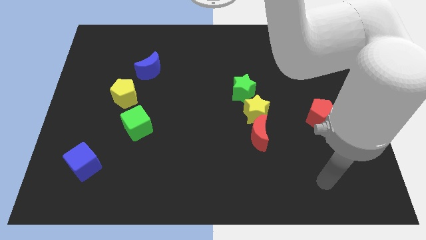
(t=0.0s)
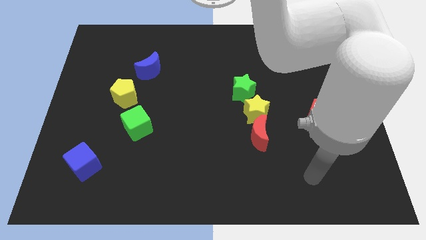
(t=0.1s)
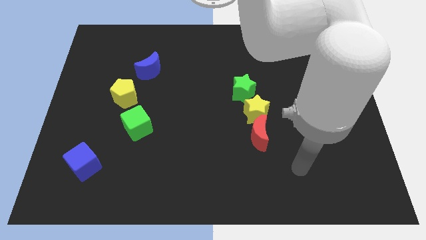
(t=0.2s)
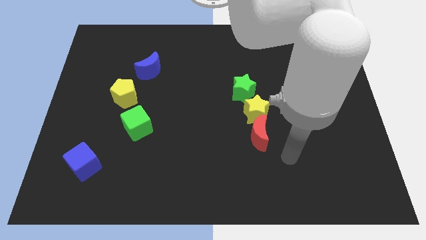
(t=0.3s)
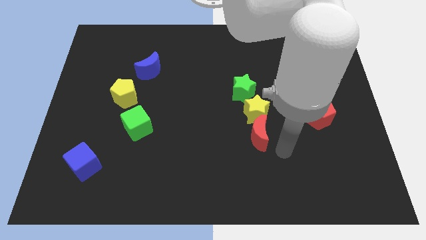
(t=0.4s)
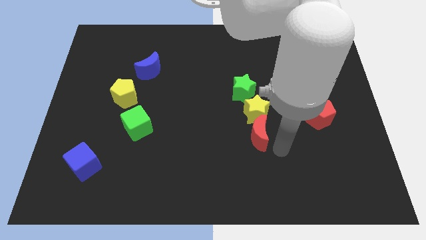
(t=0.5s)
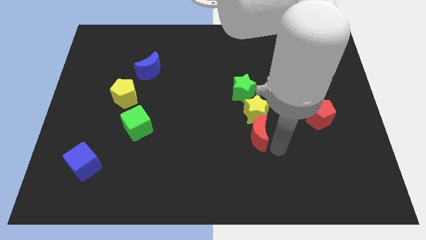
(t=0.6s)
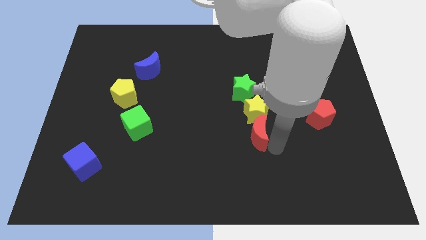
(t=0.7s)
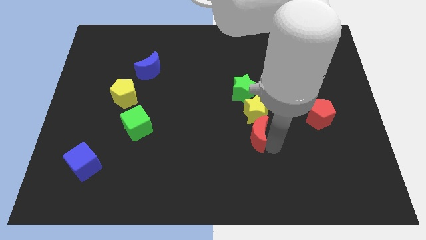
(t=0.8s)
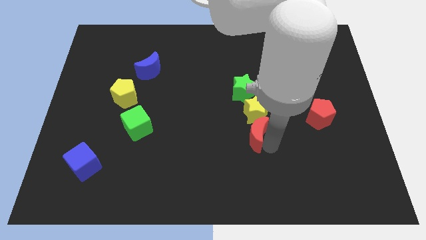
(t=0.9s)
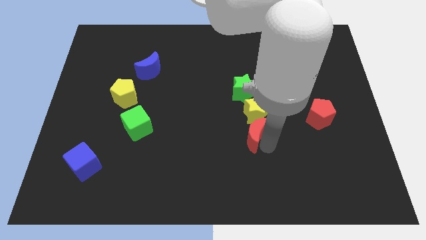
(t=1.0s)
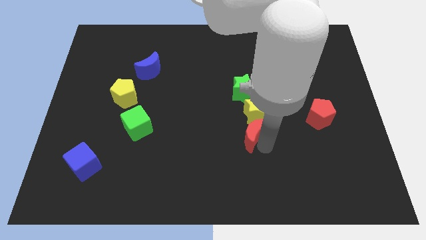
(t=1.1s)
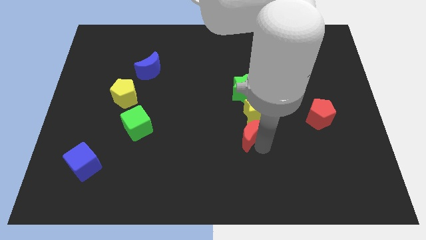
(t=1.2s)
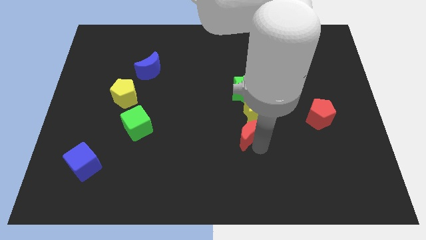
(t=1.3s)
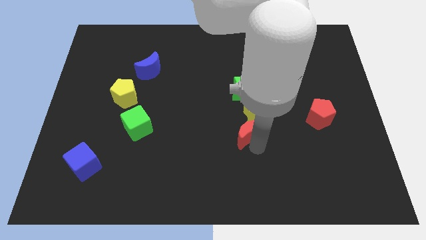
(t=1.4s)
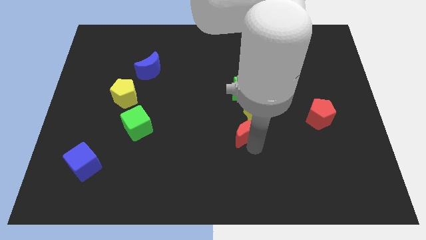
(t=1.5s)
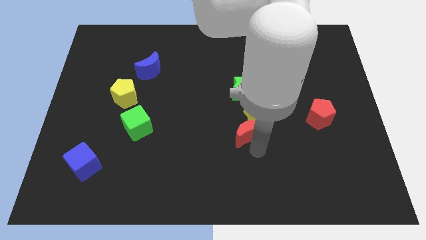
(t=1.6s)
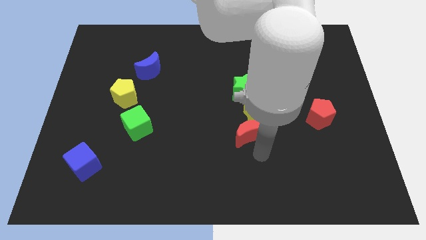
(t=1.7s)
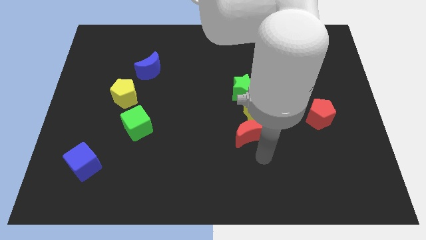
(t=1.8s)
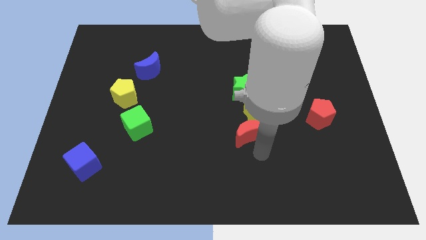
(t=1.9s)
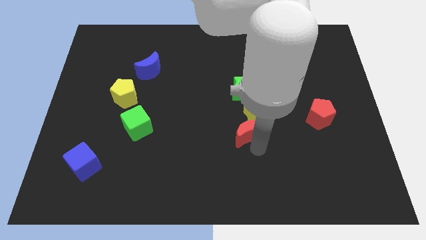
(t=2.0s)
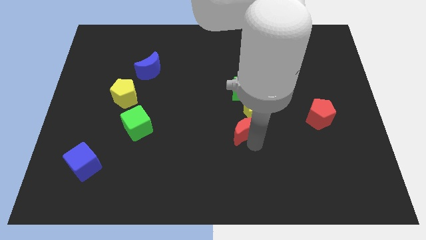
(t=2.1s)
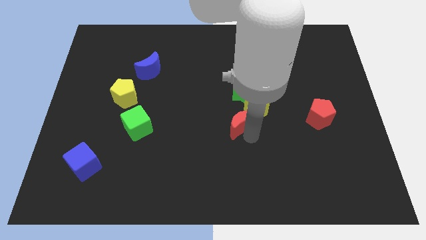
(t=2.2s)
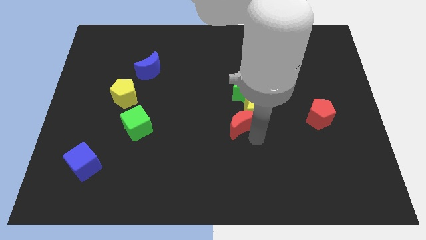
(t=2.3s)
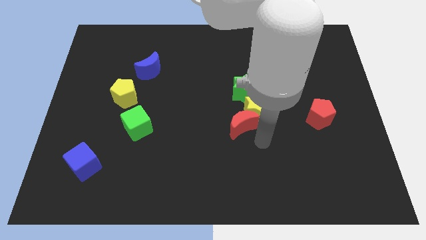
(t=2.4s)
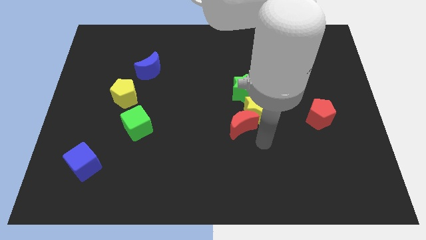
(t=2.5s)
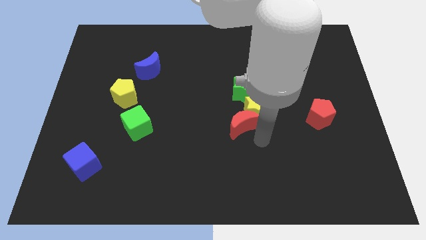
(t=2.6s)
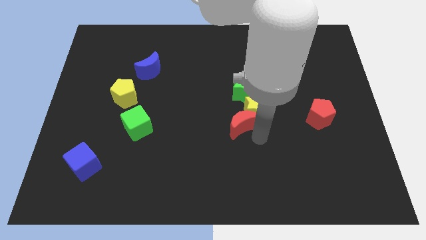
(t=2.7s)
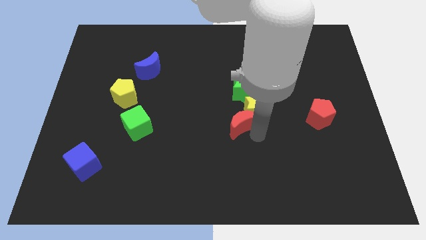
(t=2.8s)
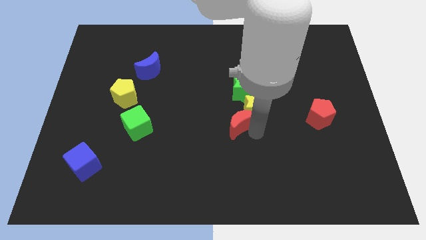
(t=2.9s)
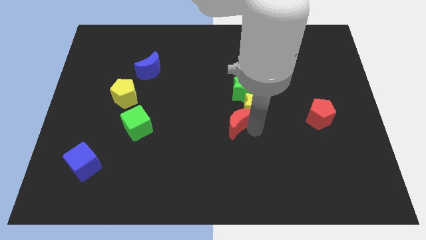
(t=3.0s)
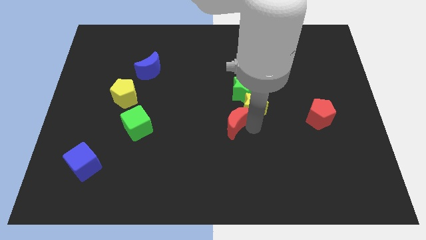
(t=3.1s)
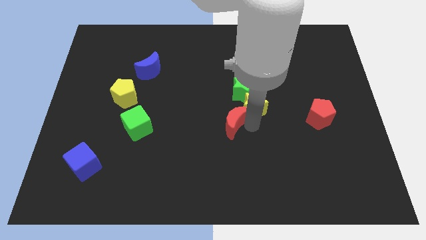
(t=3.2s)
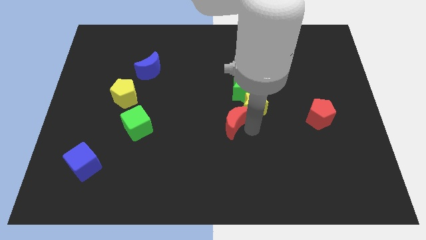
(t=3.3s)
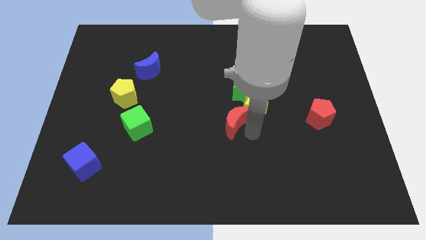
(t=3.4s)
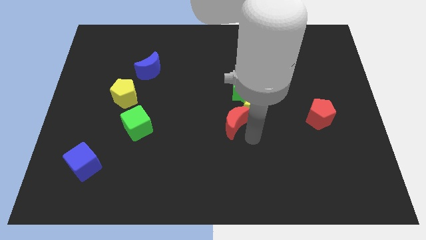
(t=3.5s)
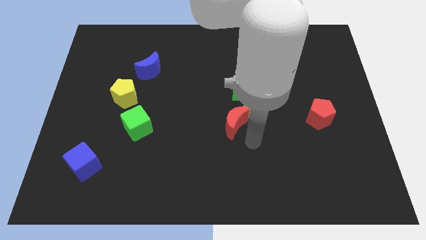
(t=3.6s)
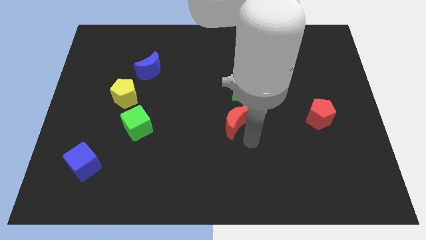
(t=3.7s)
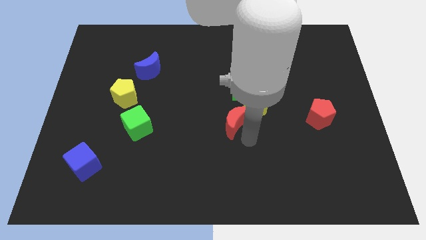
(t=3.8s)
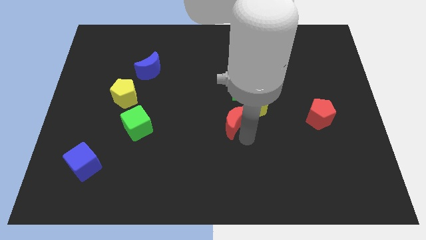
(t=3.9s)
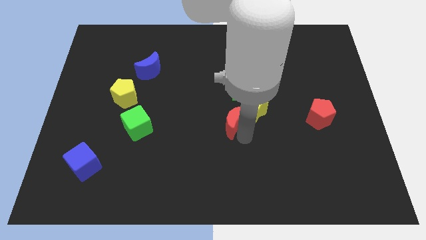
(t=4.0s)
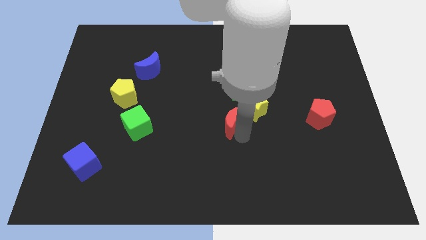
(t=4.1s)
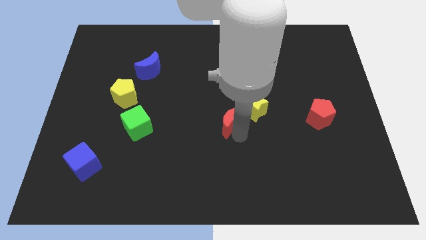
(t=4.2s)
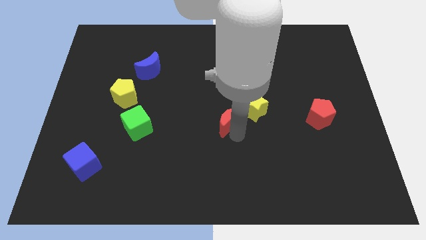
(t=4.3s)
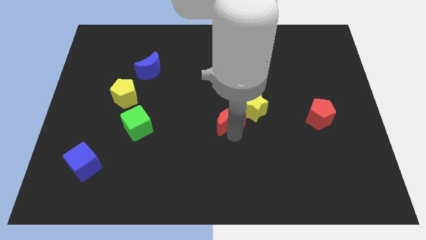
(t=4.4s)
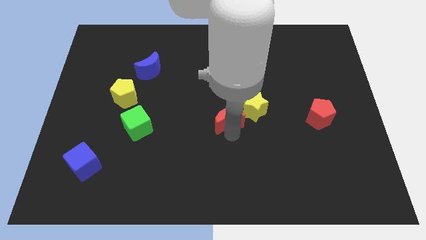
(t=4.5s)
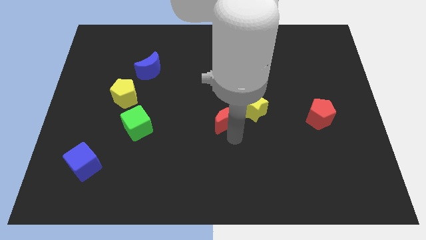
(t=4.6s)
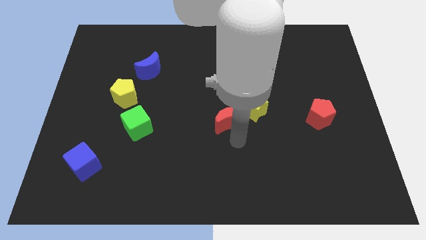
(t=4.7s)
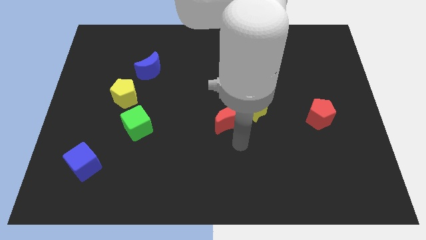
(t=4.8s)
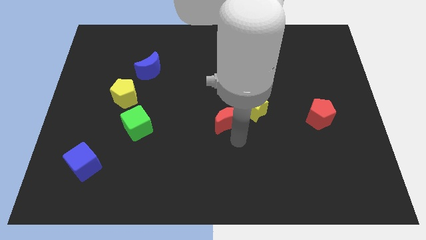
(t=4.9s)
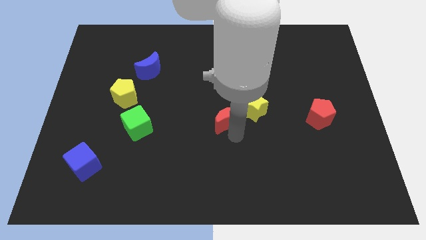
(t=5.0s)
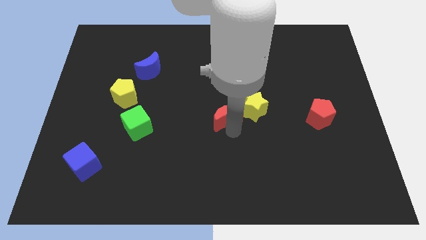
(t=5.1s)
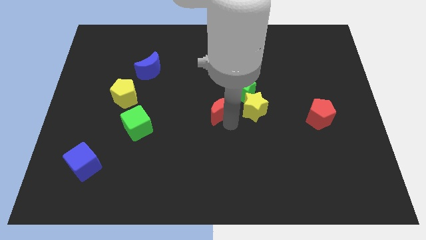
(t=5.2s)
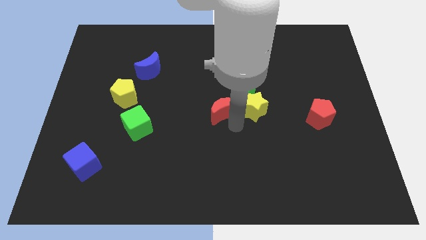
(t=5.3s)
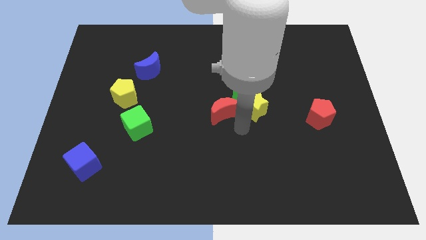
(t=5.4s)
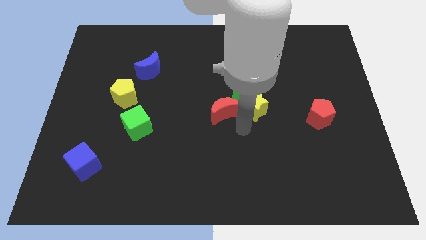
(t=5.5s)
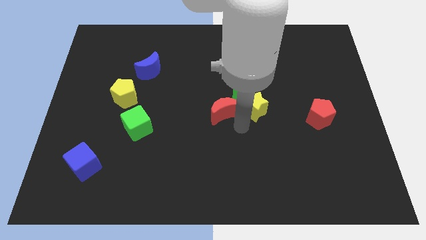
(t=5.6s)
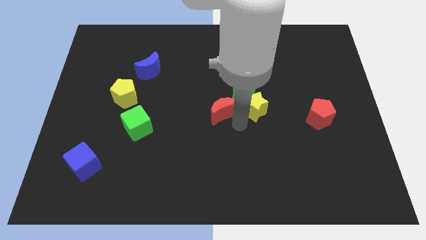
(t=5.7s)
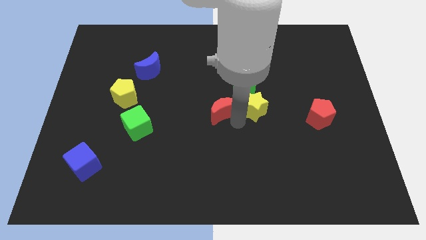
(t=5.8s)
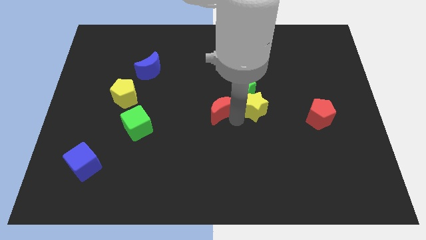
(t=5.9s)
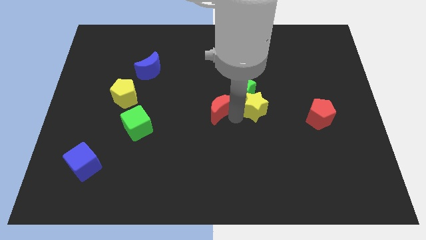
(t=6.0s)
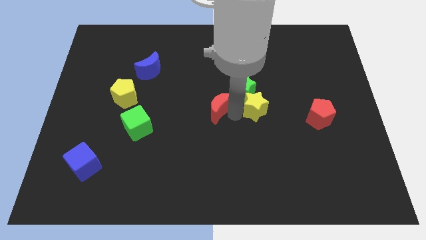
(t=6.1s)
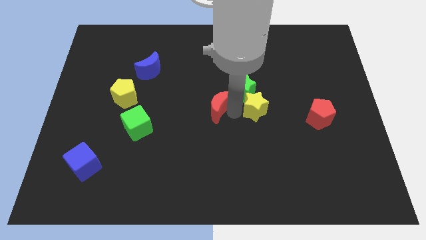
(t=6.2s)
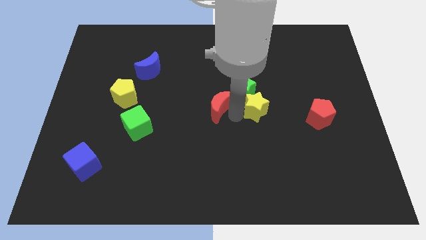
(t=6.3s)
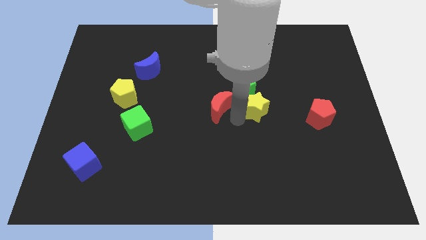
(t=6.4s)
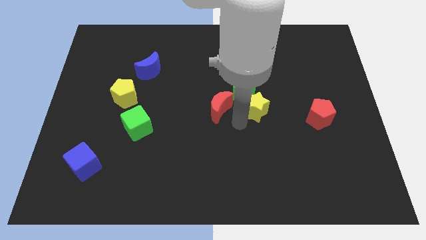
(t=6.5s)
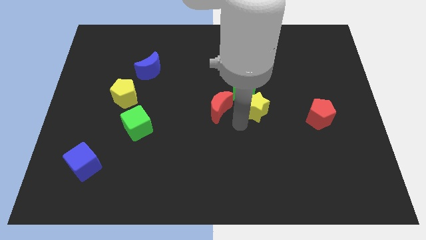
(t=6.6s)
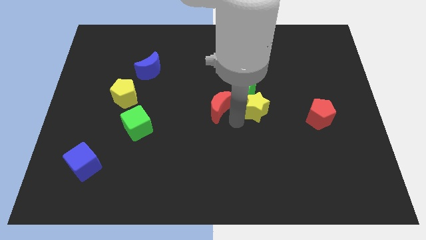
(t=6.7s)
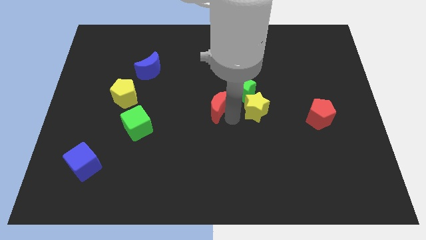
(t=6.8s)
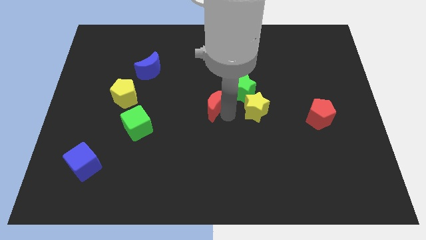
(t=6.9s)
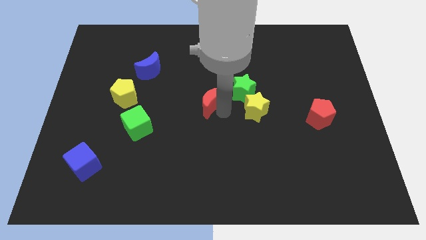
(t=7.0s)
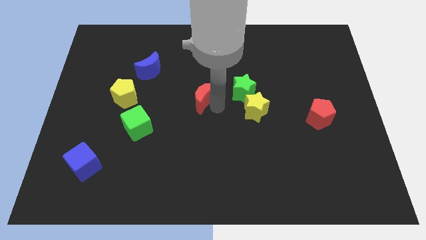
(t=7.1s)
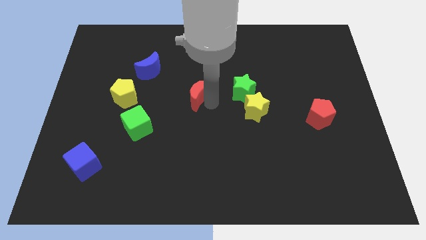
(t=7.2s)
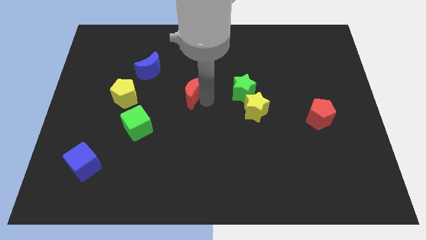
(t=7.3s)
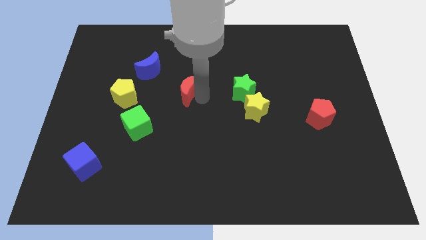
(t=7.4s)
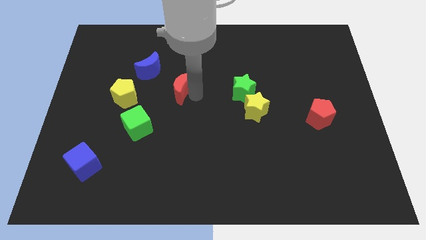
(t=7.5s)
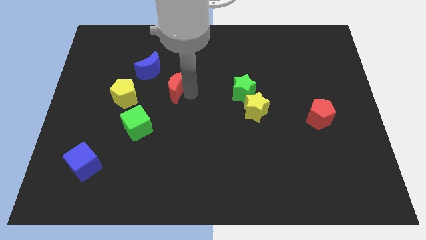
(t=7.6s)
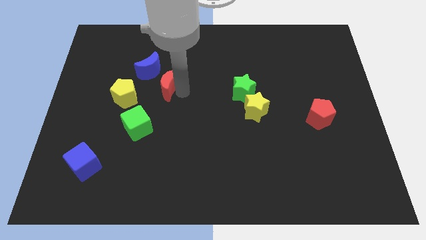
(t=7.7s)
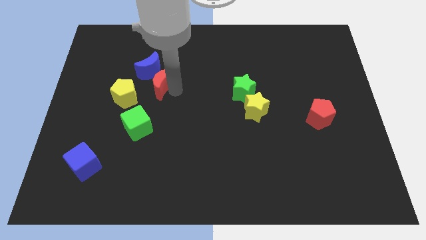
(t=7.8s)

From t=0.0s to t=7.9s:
push the red moon towards the blue moon
